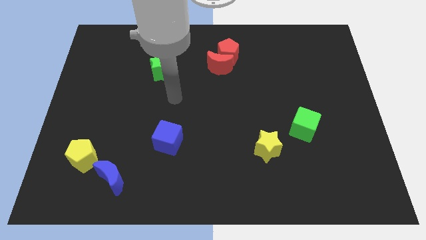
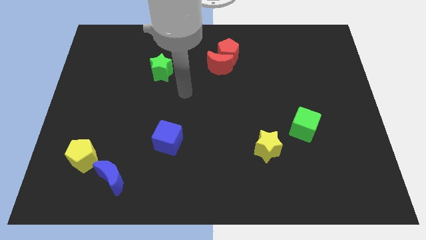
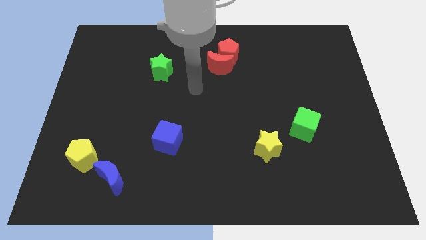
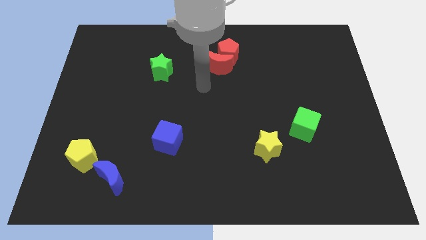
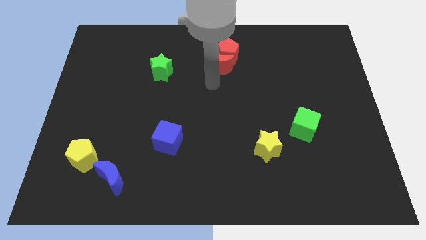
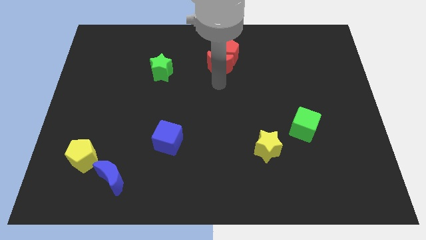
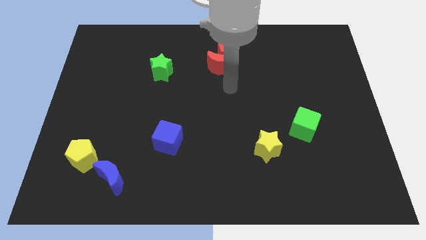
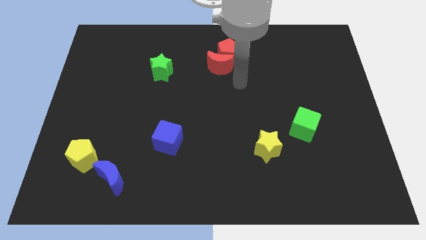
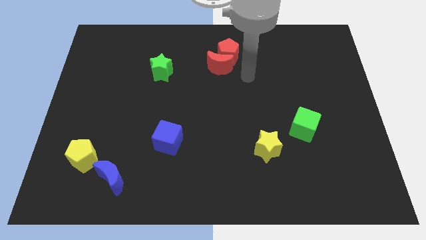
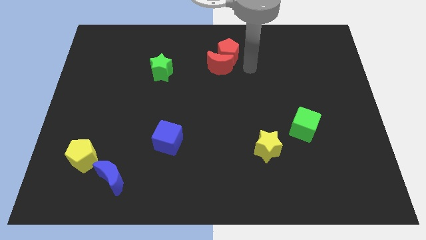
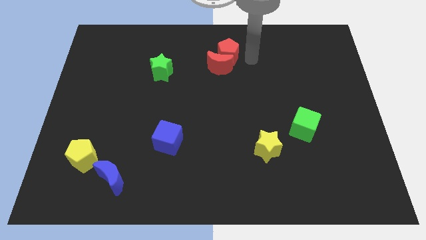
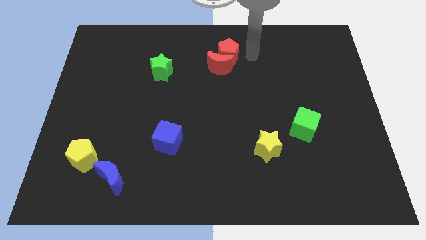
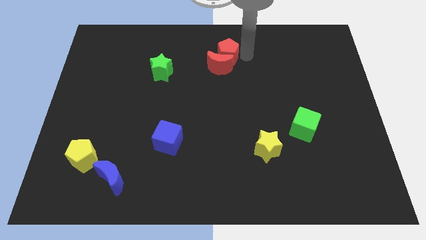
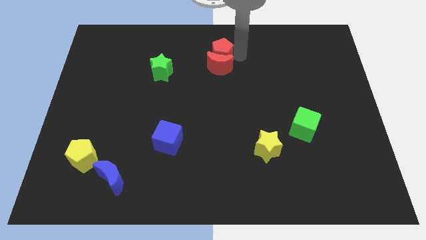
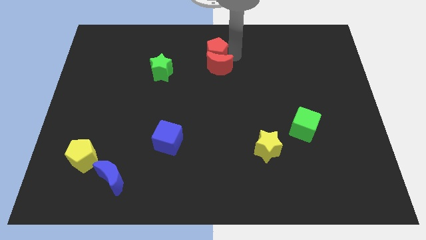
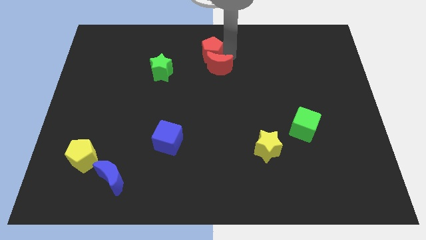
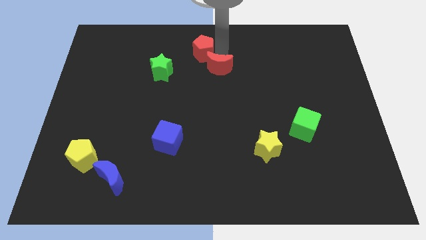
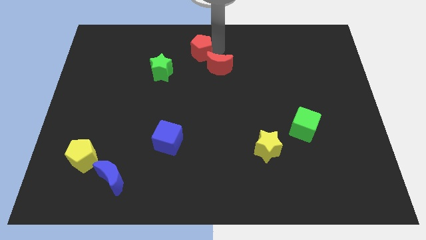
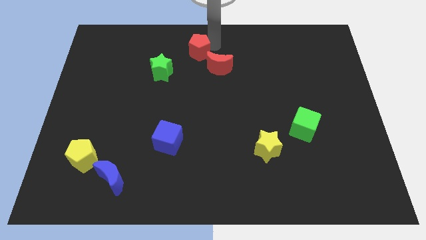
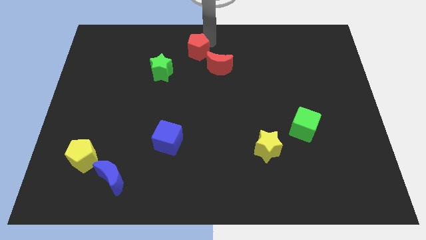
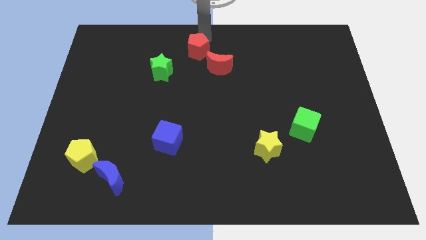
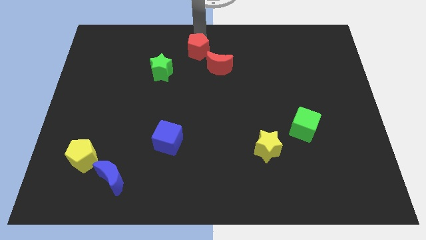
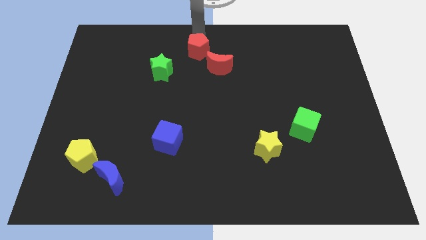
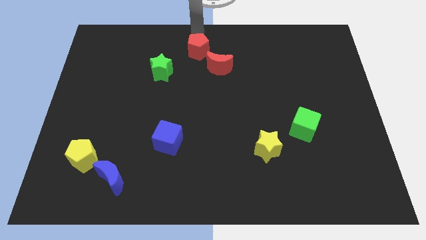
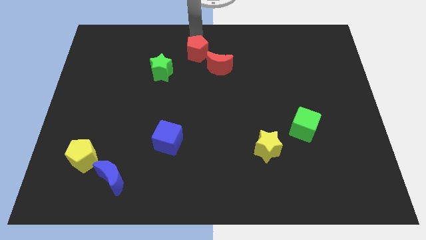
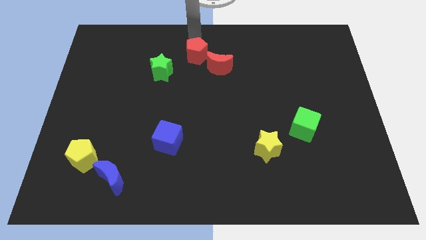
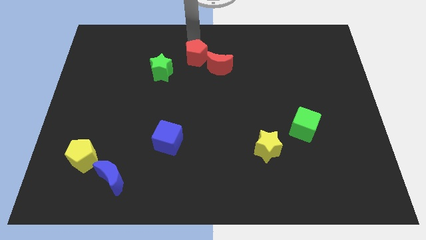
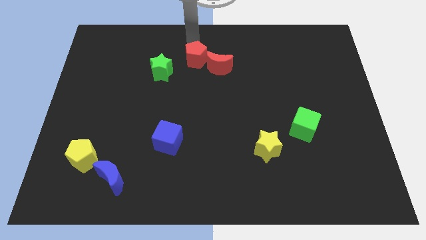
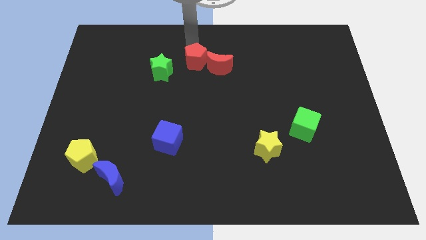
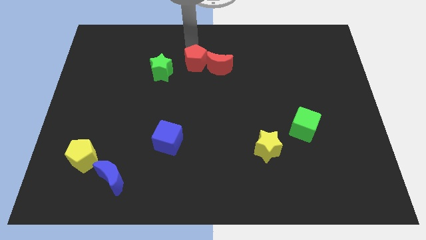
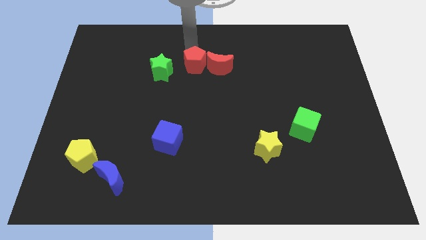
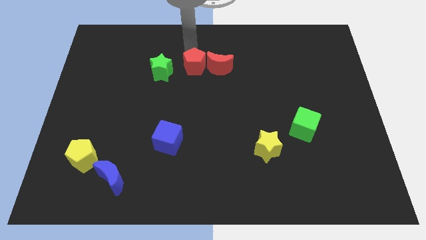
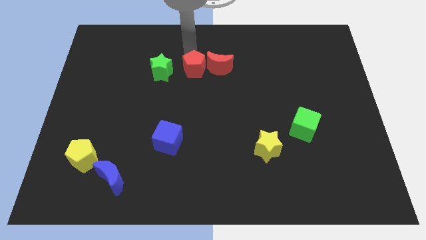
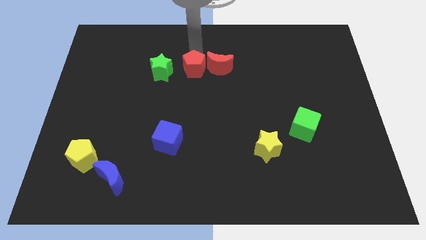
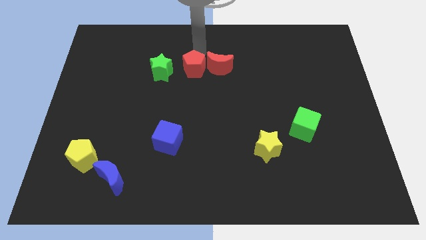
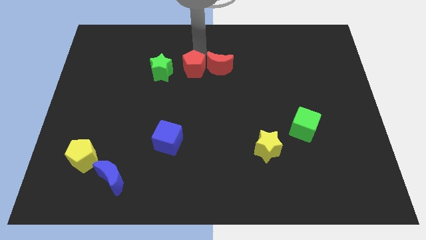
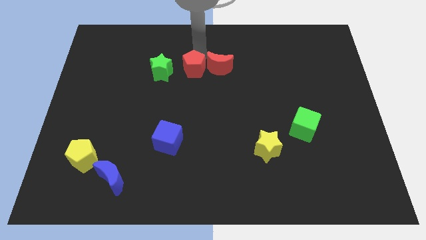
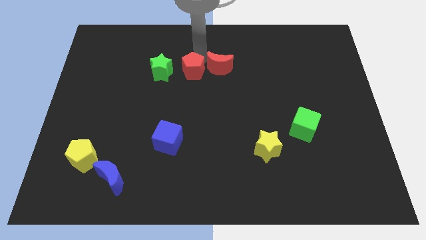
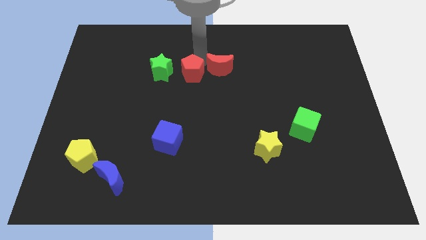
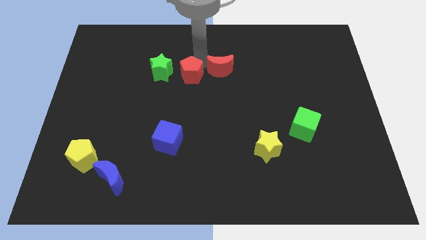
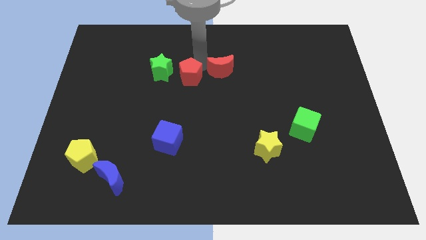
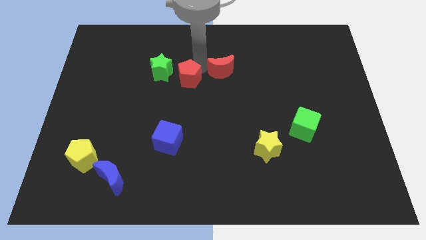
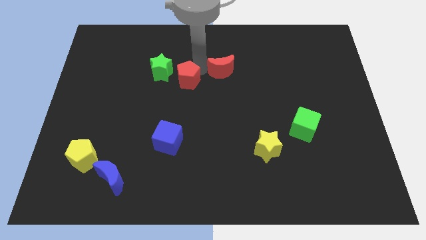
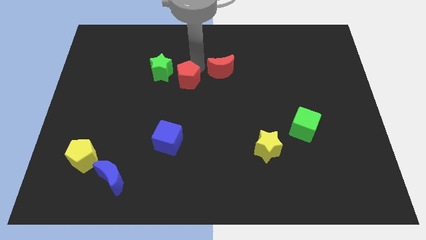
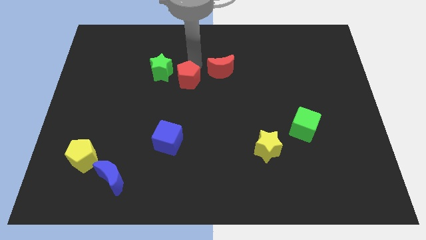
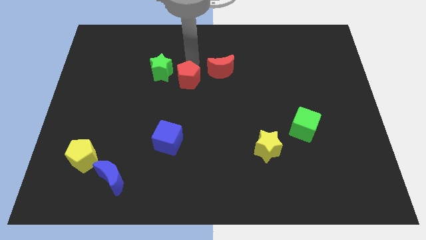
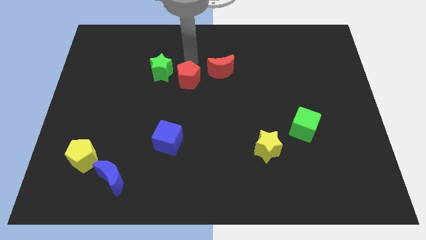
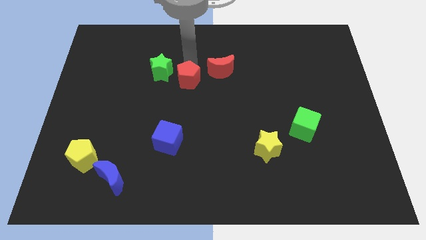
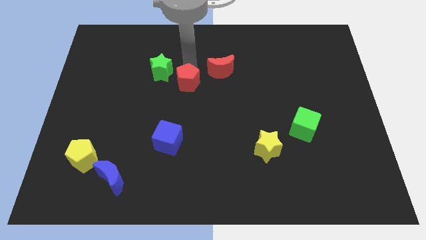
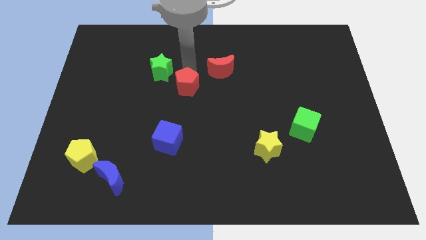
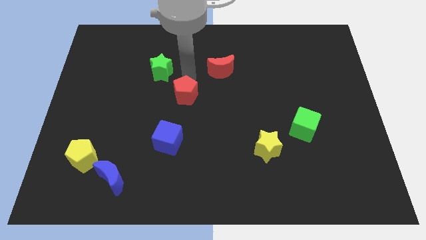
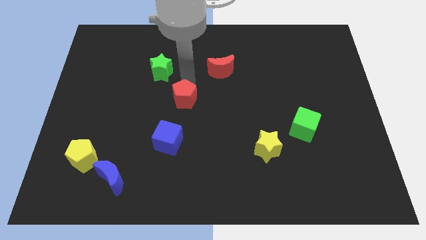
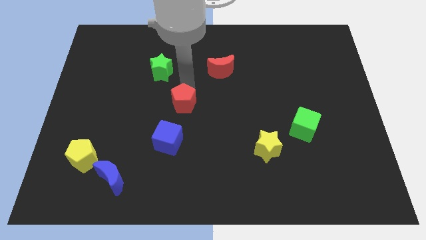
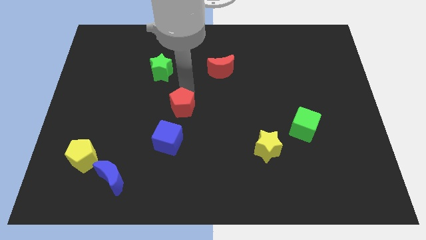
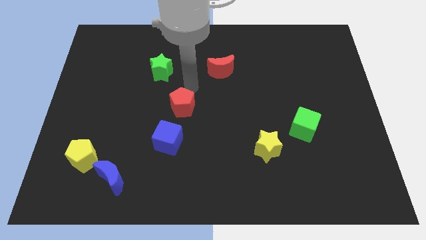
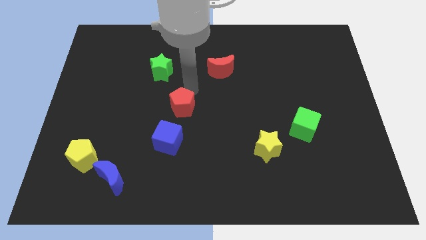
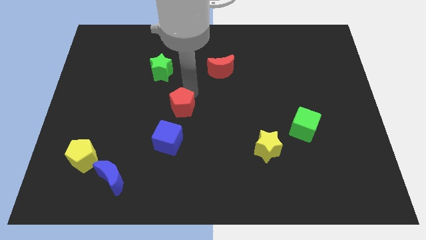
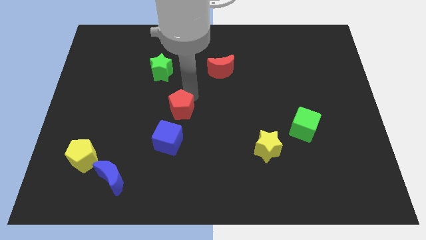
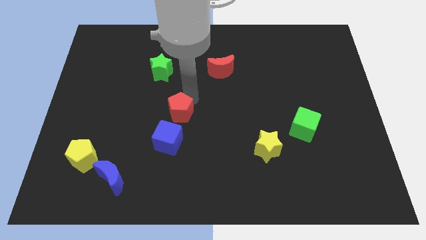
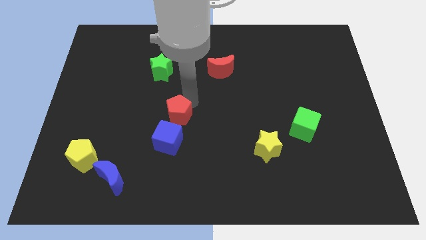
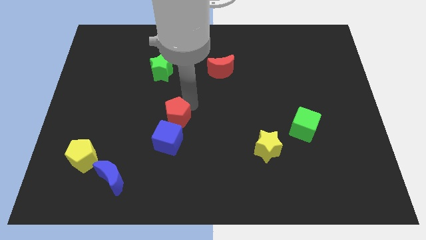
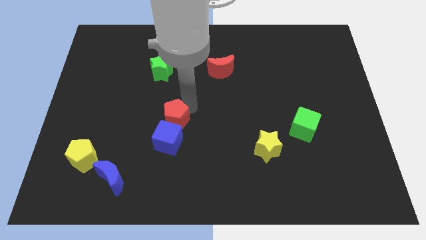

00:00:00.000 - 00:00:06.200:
slide the red pentagon towards the blue cube
